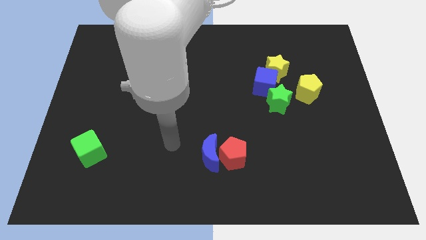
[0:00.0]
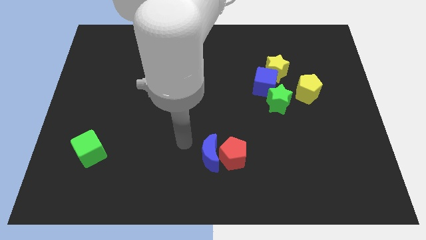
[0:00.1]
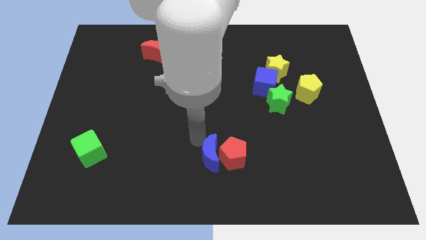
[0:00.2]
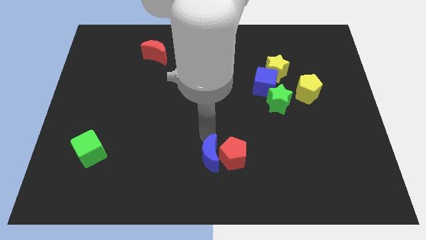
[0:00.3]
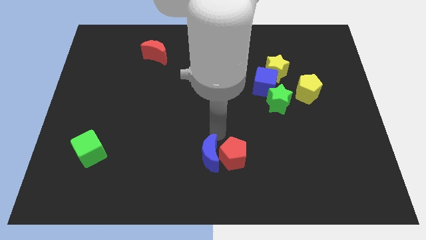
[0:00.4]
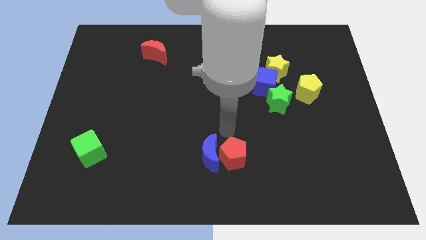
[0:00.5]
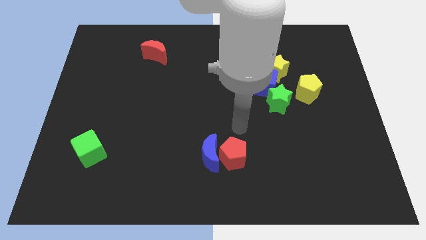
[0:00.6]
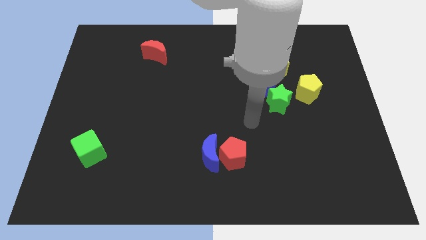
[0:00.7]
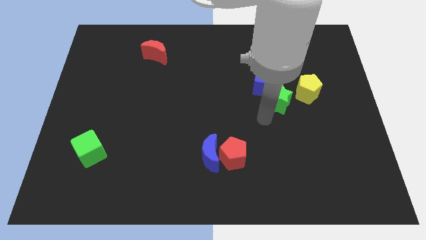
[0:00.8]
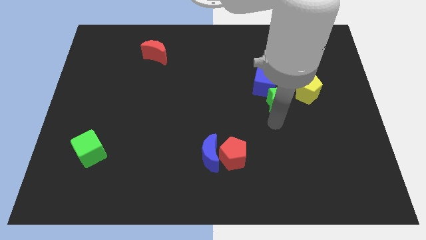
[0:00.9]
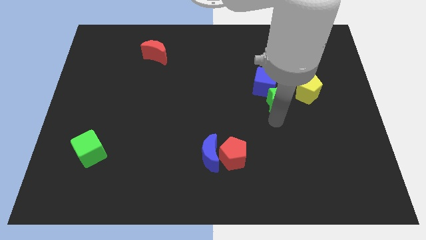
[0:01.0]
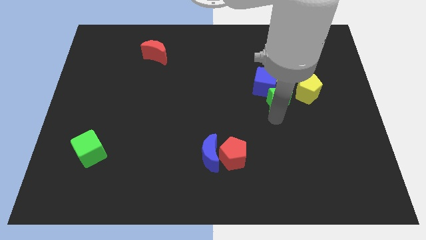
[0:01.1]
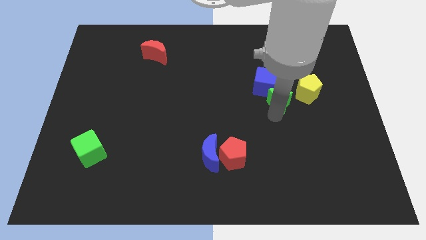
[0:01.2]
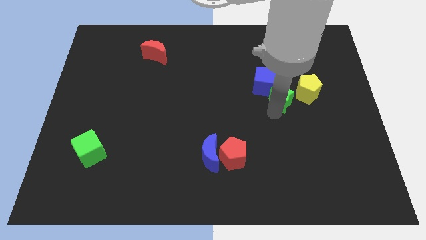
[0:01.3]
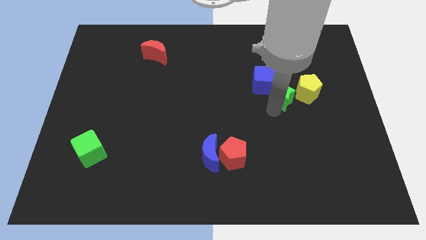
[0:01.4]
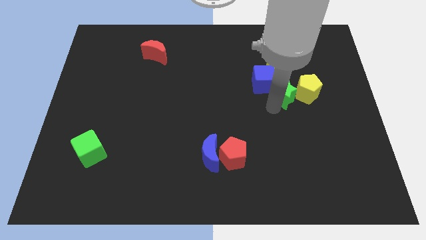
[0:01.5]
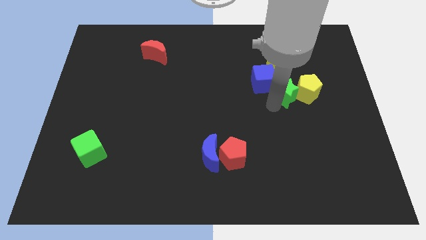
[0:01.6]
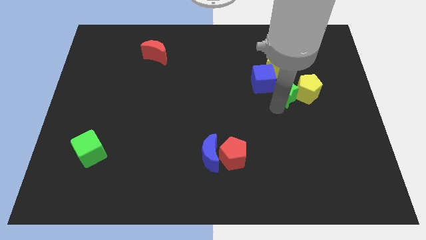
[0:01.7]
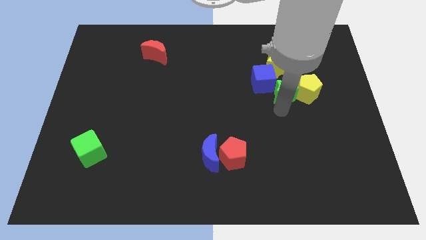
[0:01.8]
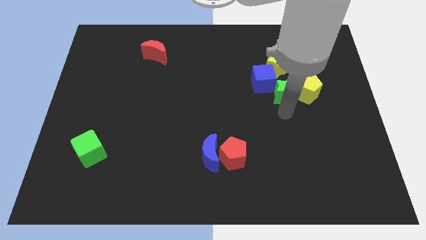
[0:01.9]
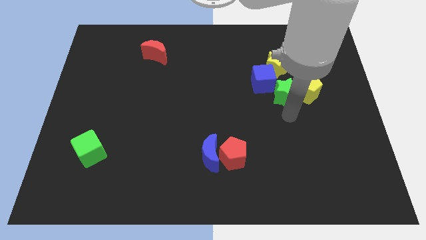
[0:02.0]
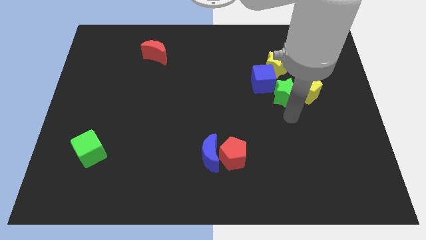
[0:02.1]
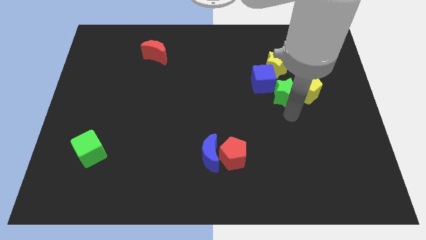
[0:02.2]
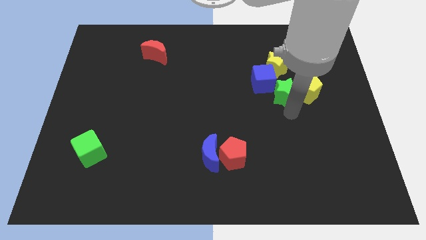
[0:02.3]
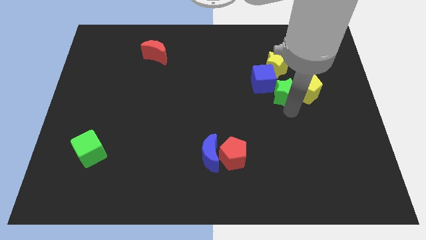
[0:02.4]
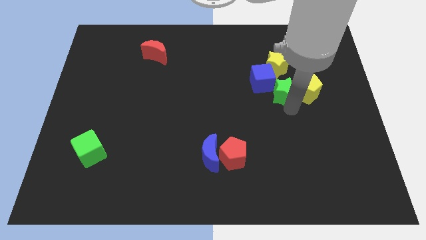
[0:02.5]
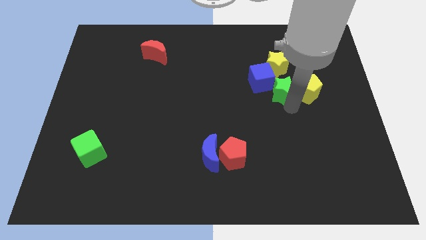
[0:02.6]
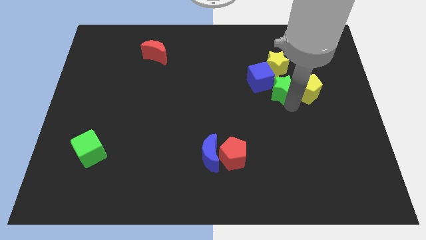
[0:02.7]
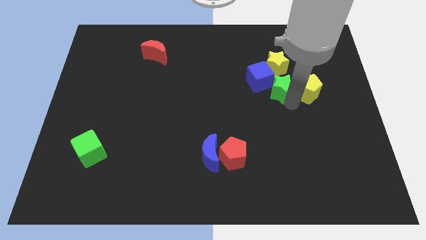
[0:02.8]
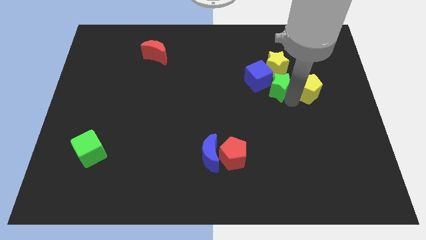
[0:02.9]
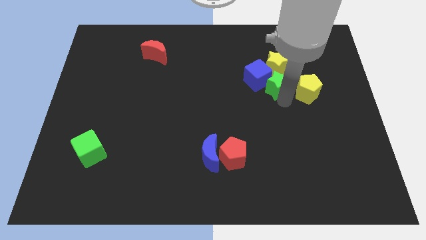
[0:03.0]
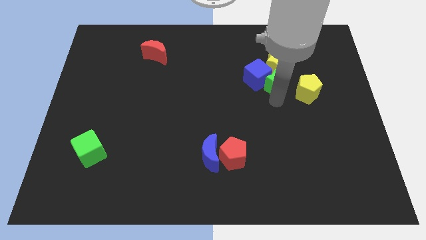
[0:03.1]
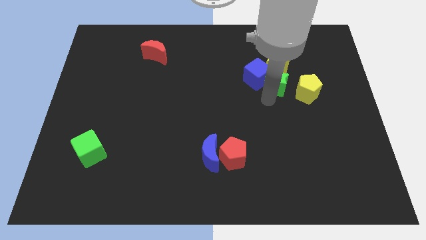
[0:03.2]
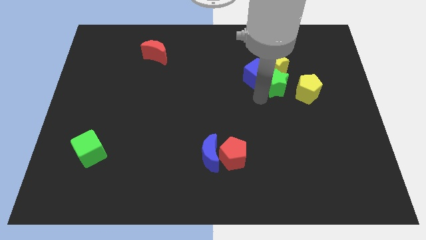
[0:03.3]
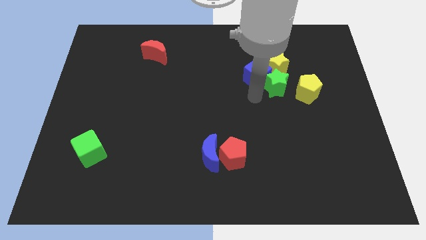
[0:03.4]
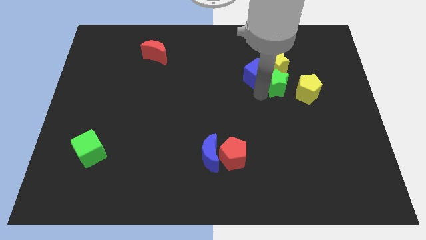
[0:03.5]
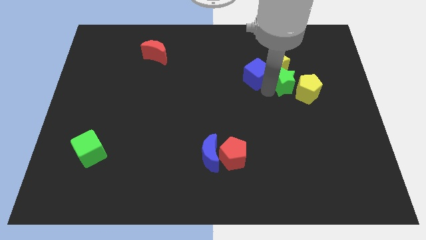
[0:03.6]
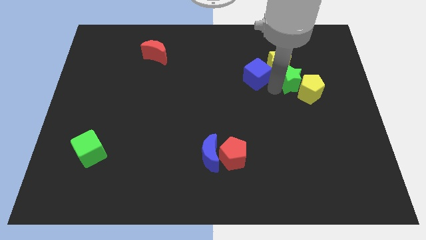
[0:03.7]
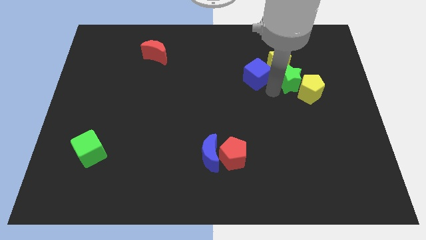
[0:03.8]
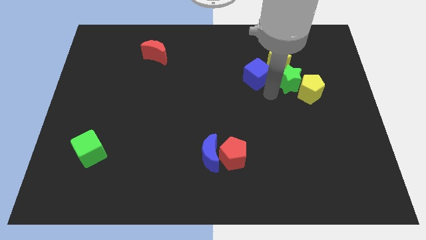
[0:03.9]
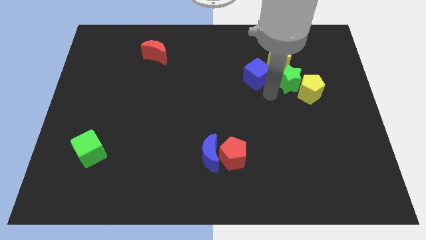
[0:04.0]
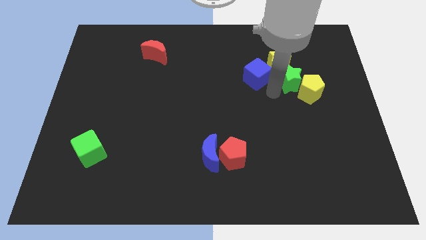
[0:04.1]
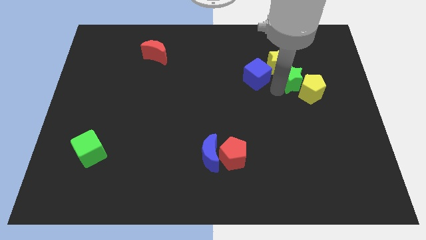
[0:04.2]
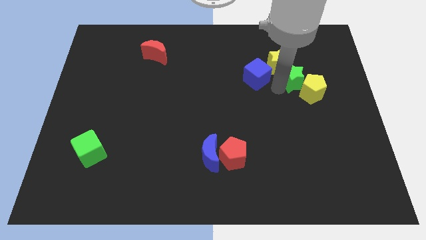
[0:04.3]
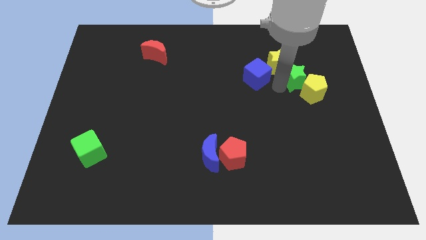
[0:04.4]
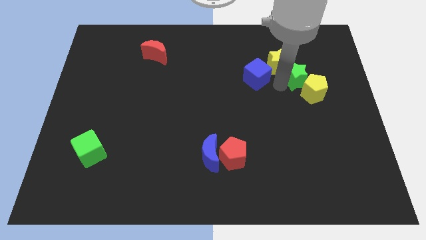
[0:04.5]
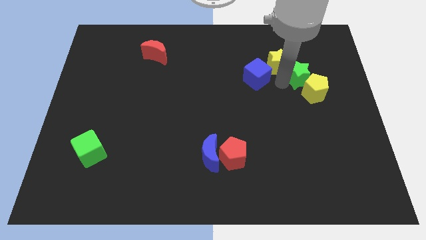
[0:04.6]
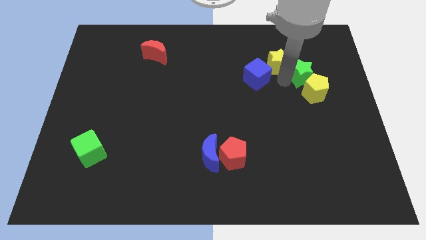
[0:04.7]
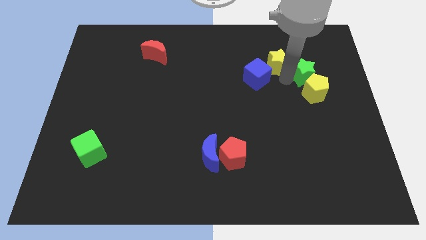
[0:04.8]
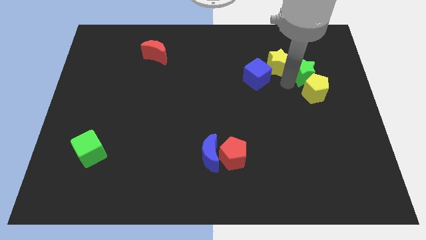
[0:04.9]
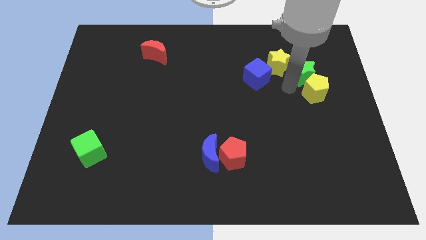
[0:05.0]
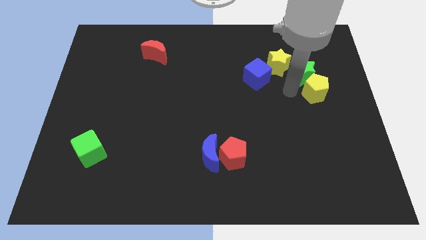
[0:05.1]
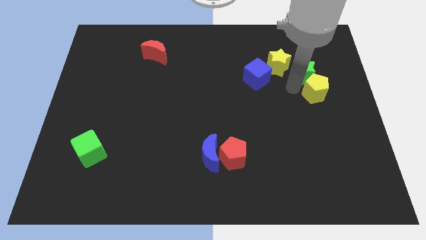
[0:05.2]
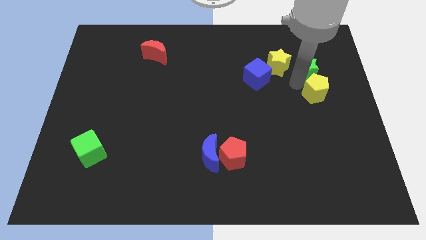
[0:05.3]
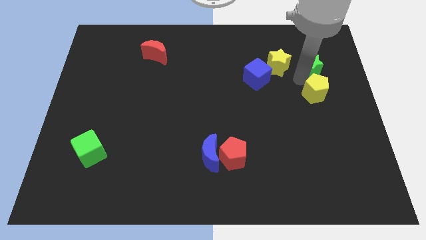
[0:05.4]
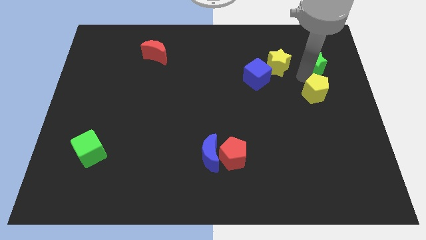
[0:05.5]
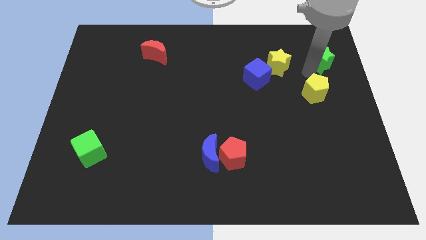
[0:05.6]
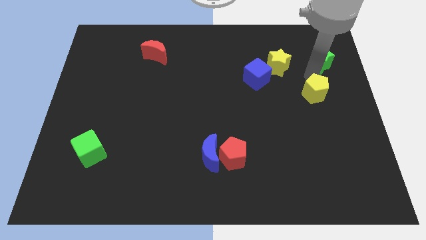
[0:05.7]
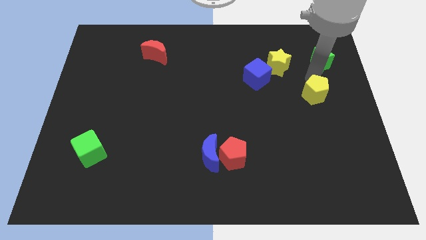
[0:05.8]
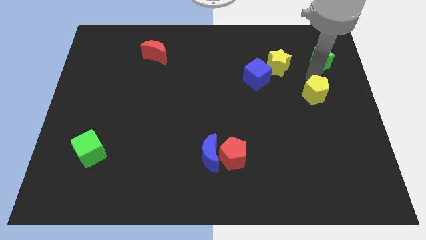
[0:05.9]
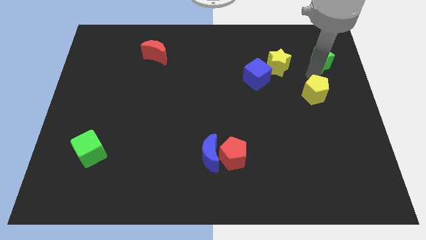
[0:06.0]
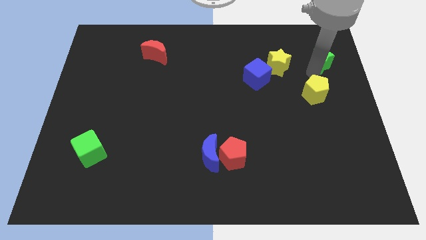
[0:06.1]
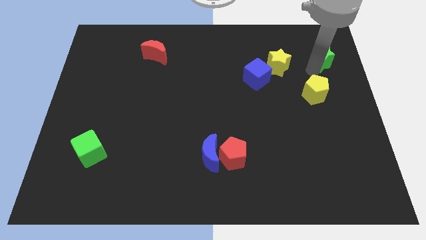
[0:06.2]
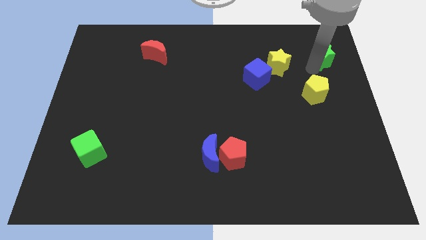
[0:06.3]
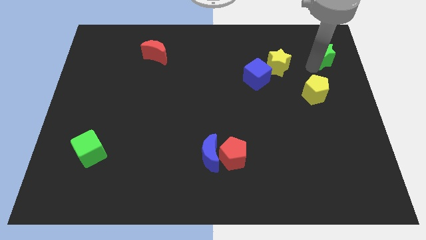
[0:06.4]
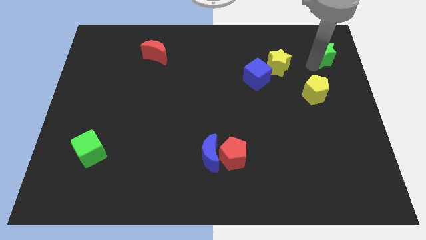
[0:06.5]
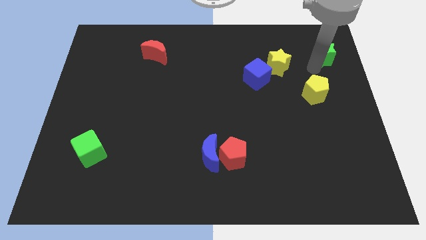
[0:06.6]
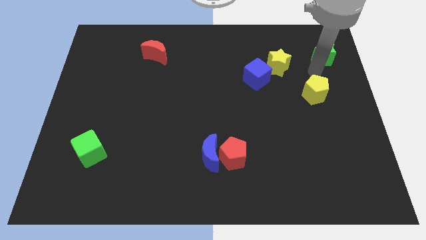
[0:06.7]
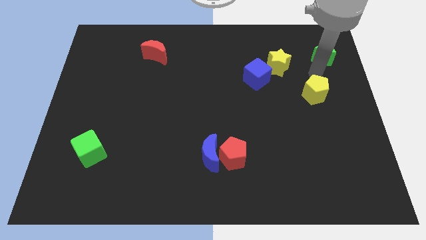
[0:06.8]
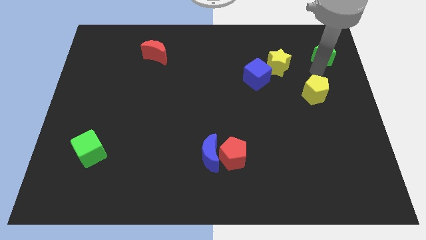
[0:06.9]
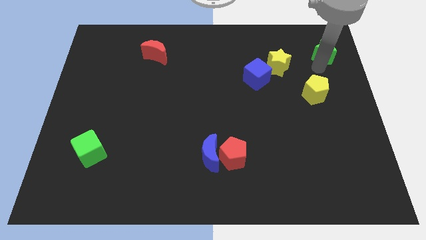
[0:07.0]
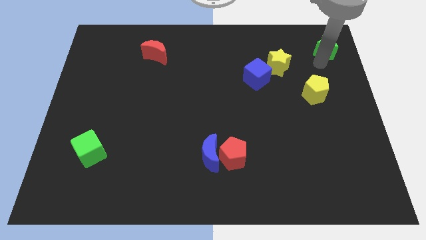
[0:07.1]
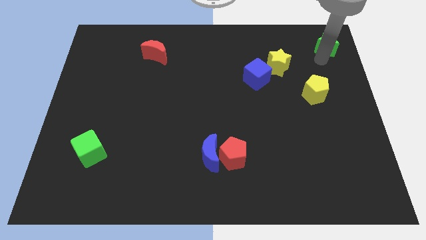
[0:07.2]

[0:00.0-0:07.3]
put the green star to the top right
